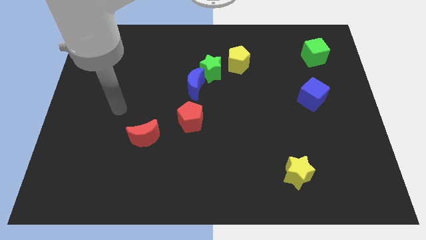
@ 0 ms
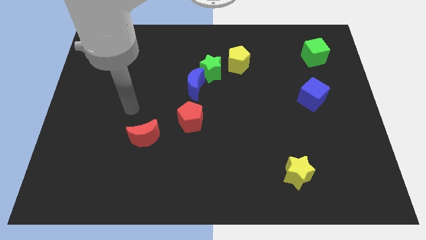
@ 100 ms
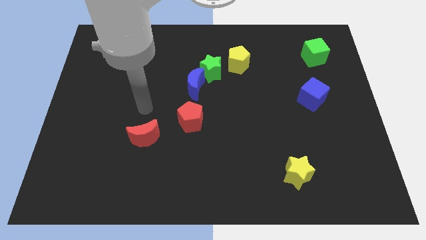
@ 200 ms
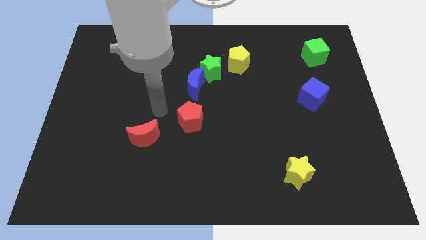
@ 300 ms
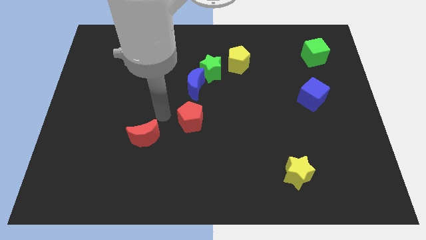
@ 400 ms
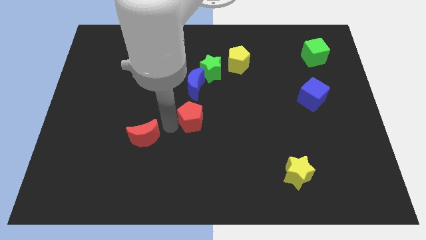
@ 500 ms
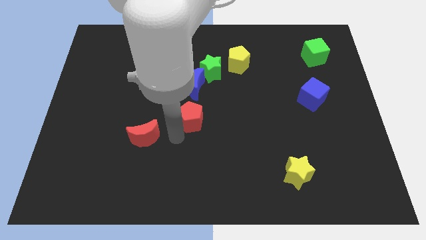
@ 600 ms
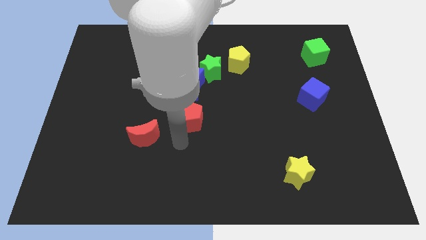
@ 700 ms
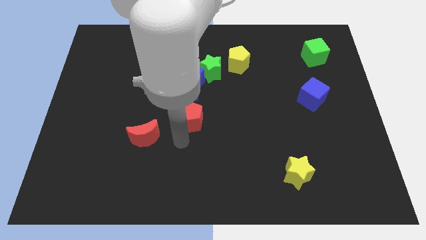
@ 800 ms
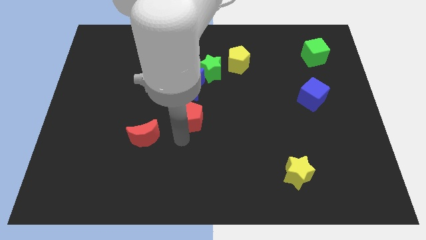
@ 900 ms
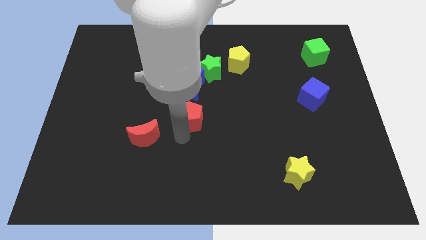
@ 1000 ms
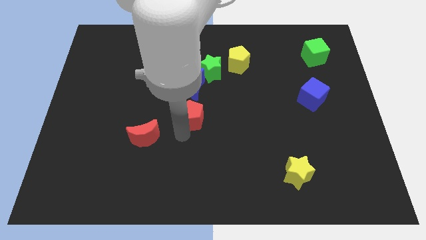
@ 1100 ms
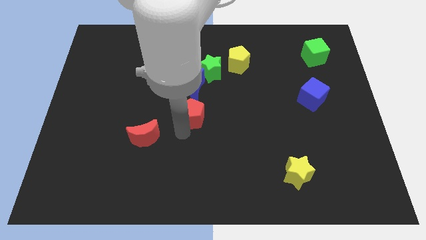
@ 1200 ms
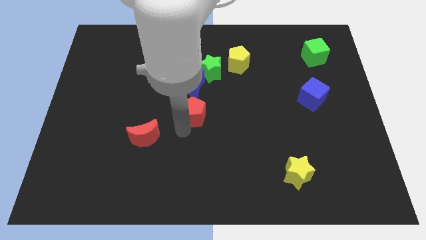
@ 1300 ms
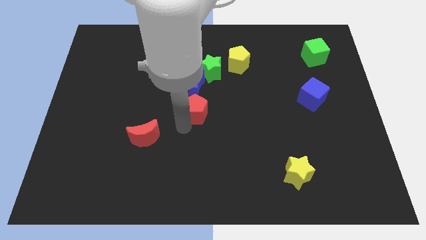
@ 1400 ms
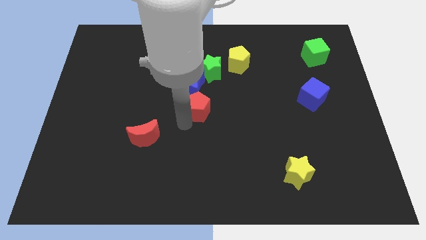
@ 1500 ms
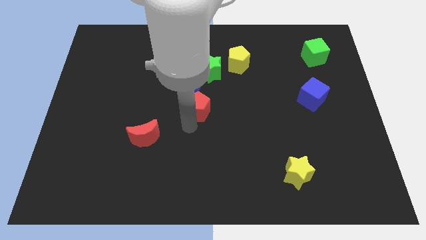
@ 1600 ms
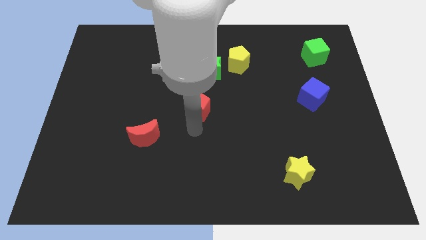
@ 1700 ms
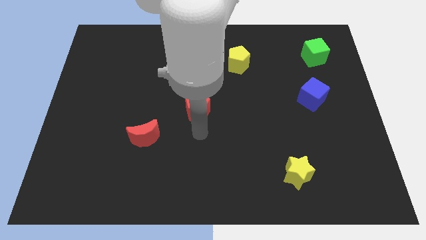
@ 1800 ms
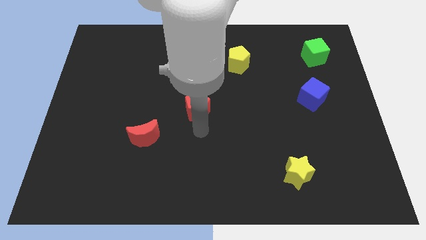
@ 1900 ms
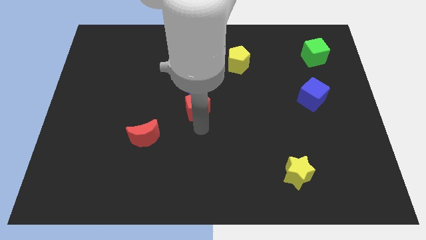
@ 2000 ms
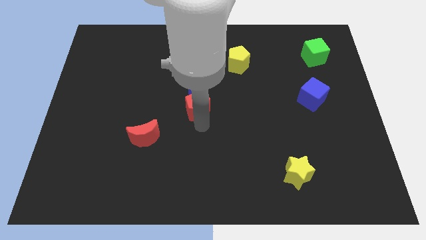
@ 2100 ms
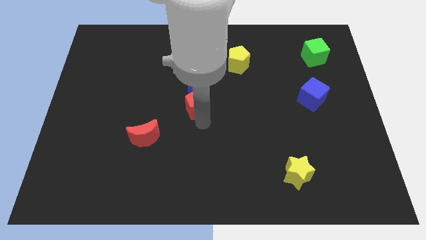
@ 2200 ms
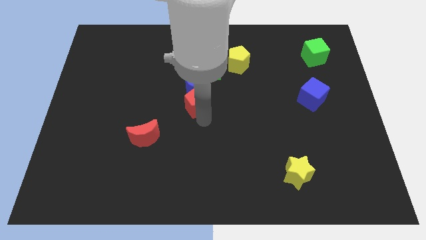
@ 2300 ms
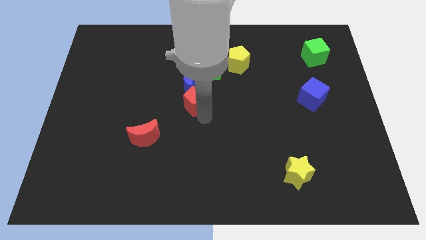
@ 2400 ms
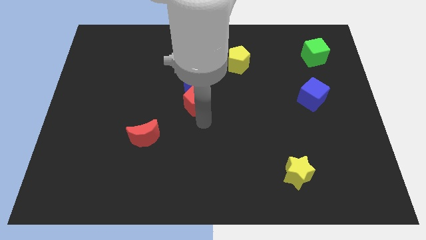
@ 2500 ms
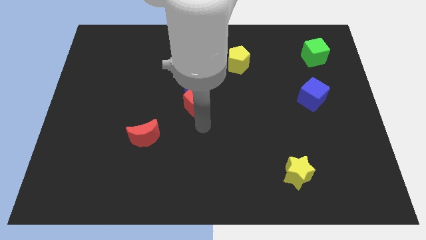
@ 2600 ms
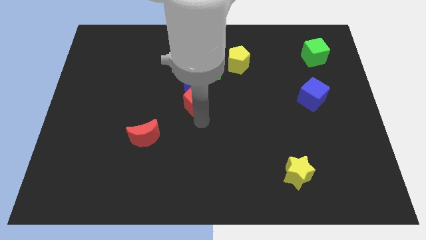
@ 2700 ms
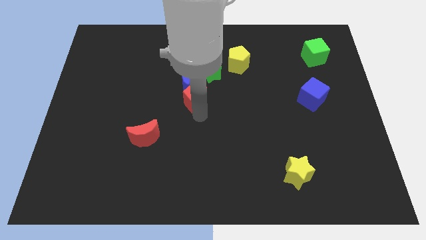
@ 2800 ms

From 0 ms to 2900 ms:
push the red pentagon close to the blue moon

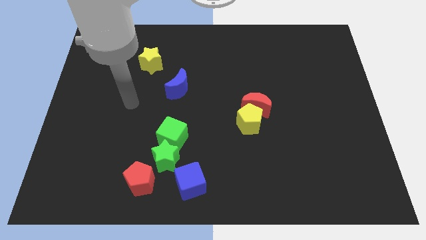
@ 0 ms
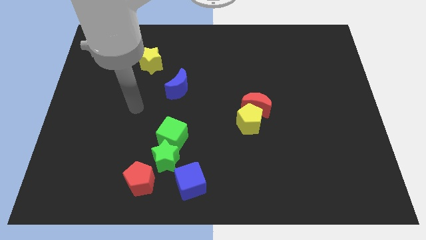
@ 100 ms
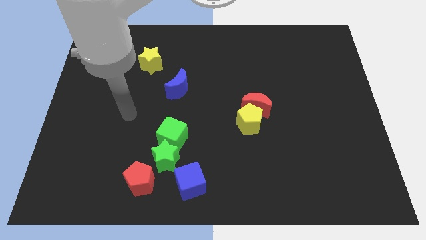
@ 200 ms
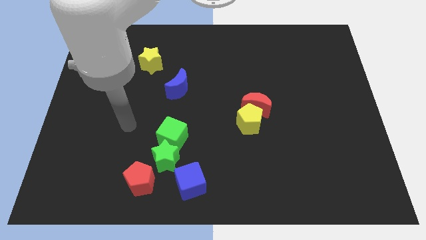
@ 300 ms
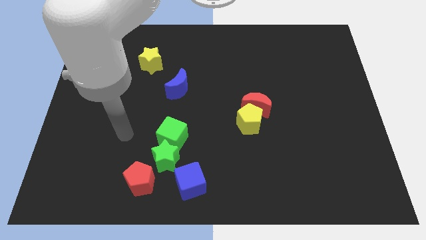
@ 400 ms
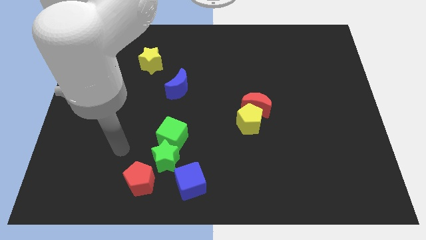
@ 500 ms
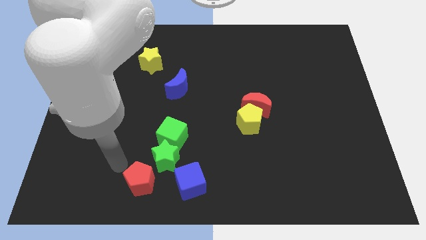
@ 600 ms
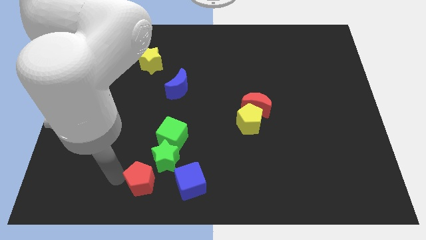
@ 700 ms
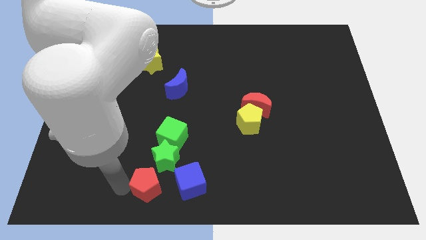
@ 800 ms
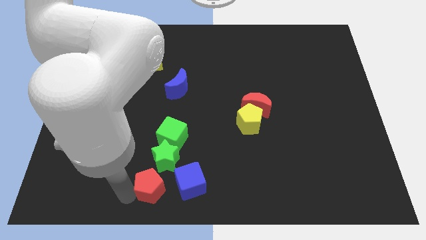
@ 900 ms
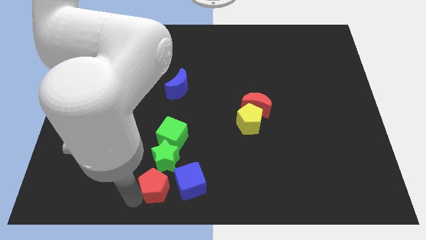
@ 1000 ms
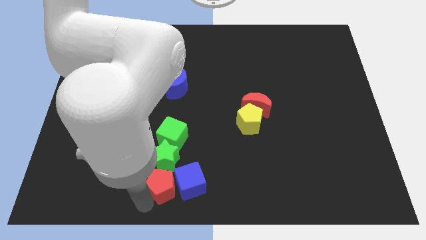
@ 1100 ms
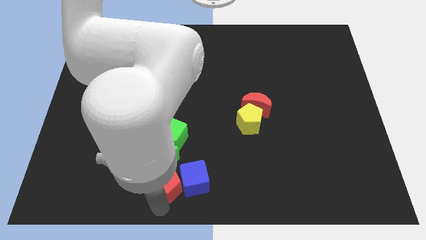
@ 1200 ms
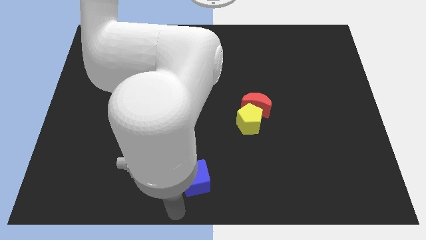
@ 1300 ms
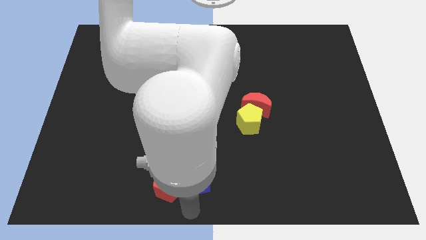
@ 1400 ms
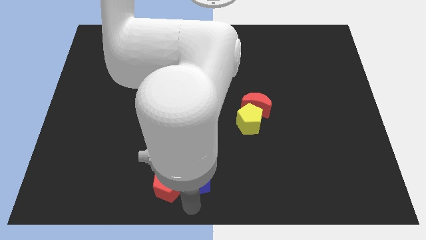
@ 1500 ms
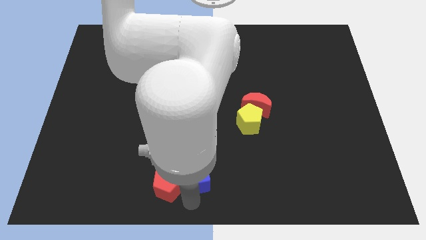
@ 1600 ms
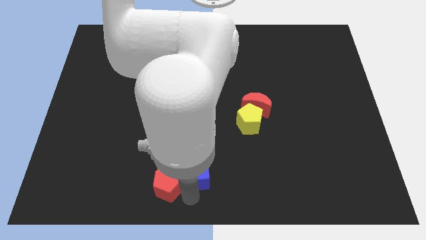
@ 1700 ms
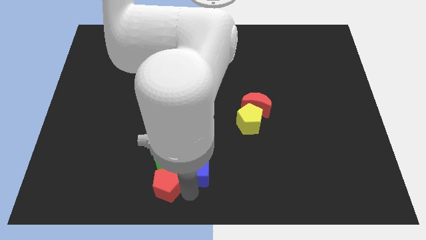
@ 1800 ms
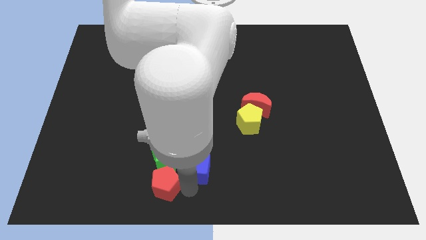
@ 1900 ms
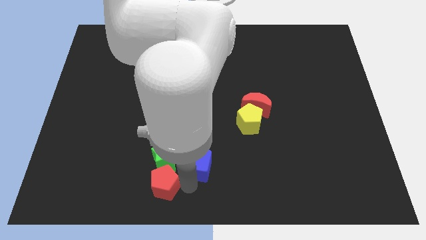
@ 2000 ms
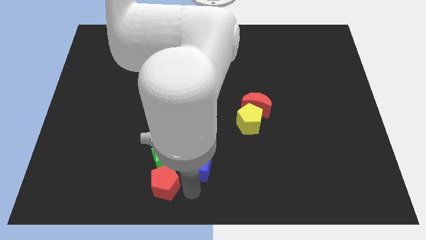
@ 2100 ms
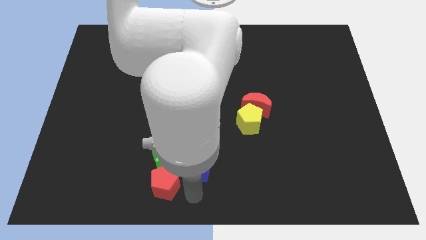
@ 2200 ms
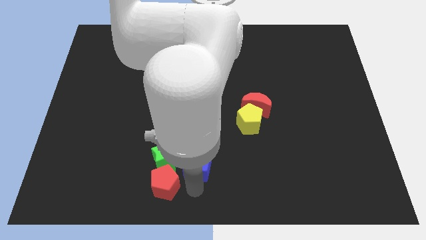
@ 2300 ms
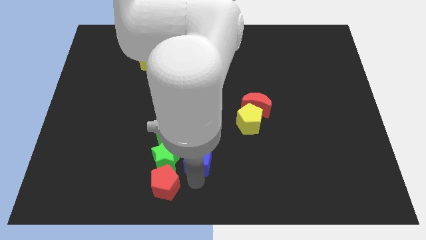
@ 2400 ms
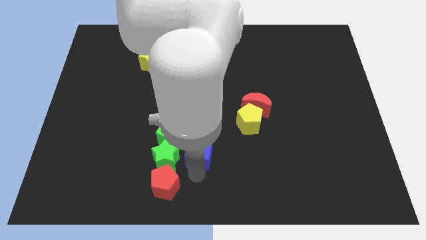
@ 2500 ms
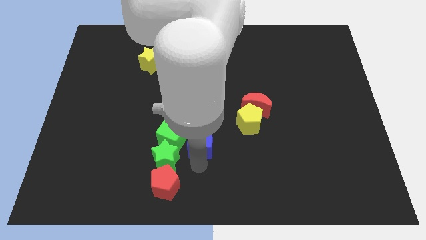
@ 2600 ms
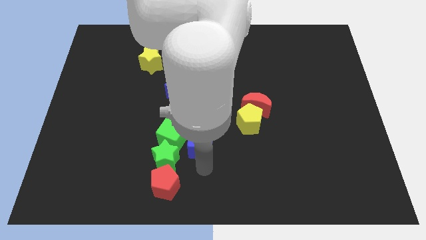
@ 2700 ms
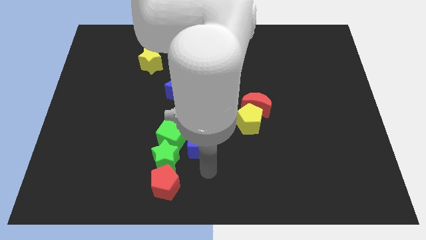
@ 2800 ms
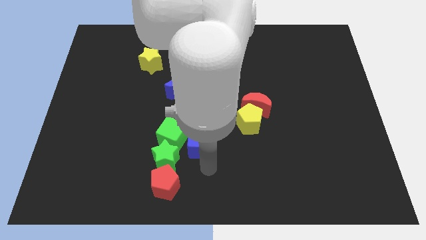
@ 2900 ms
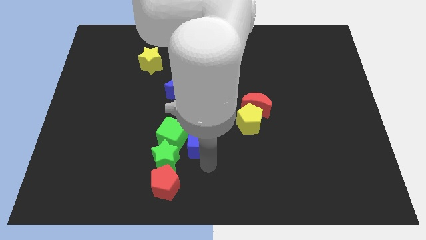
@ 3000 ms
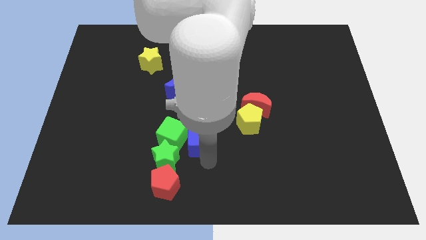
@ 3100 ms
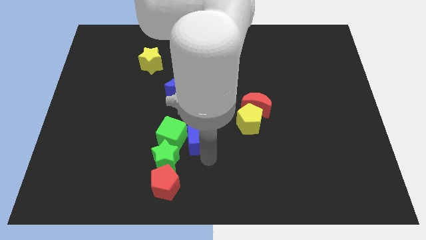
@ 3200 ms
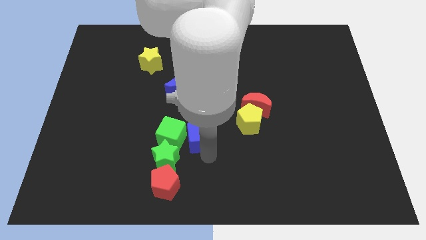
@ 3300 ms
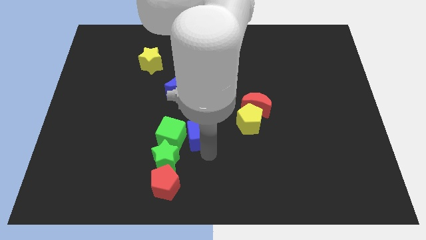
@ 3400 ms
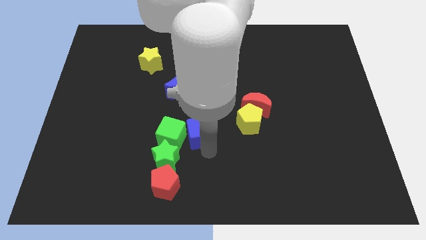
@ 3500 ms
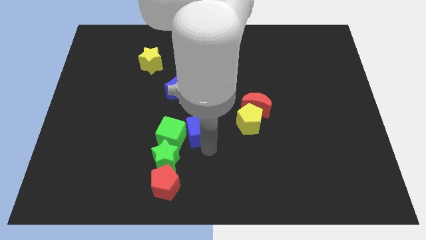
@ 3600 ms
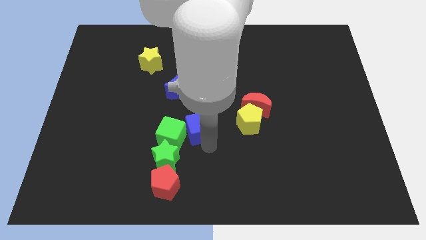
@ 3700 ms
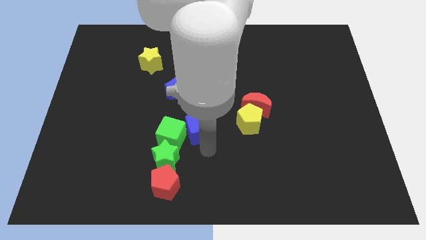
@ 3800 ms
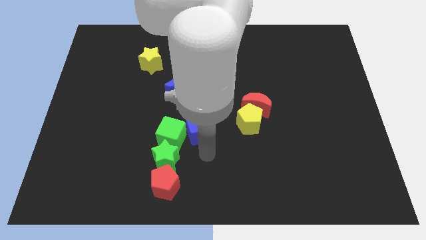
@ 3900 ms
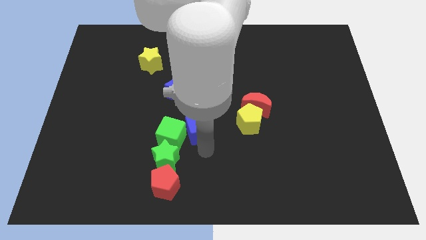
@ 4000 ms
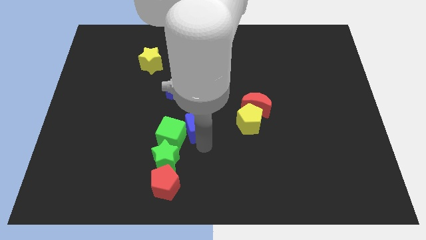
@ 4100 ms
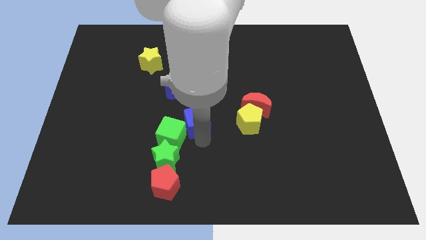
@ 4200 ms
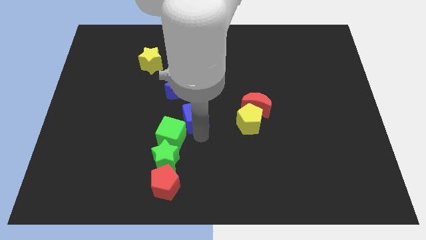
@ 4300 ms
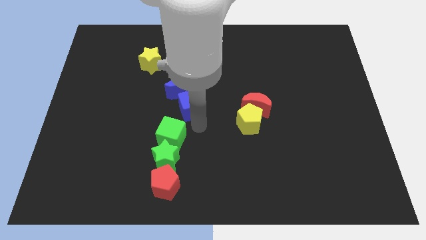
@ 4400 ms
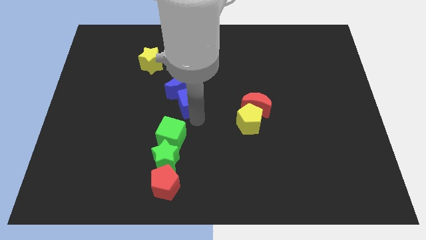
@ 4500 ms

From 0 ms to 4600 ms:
move the blue cube to the blue moon
